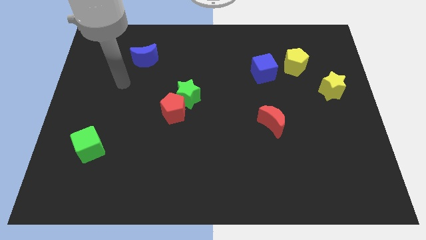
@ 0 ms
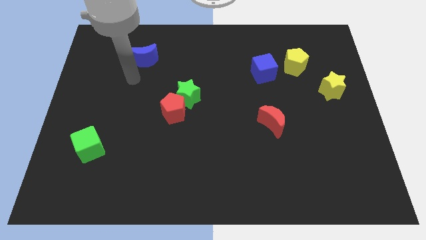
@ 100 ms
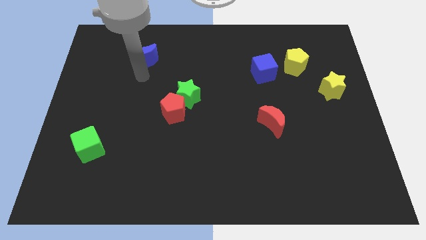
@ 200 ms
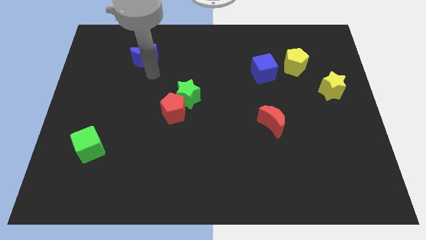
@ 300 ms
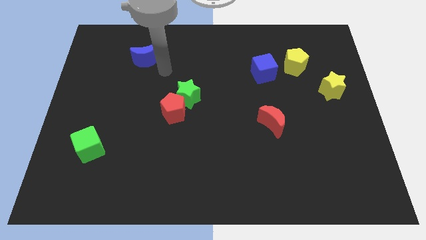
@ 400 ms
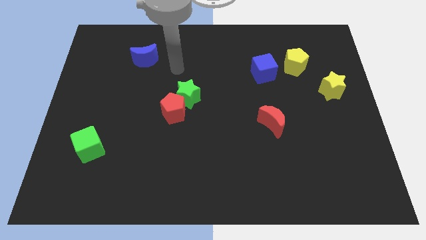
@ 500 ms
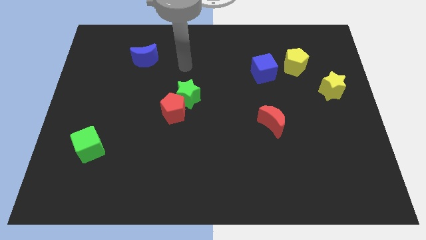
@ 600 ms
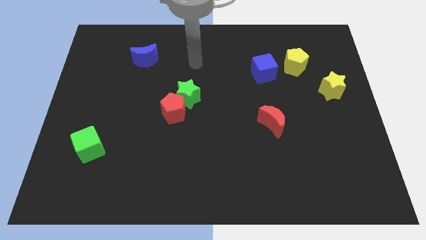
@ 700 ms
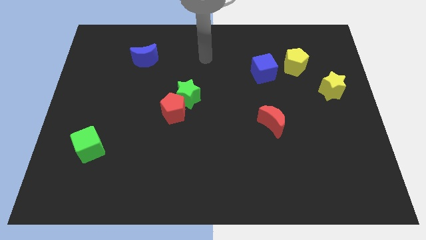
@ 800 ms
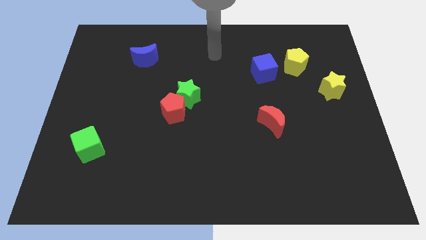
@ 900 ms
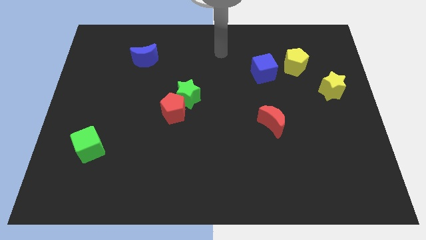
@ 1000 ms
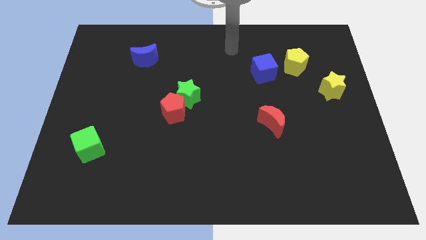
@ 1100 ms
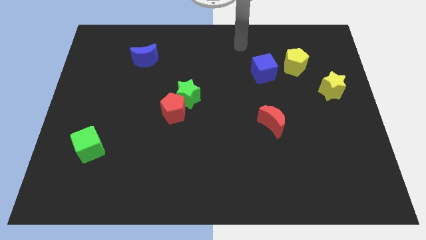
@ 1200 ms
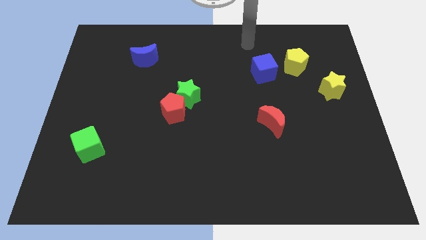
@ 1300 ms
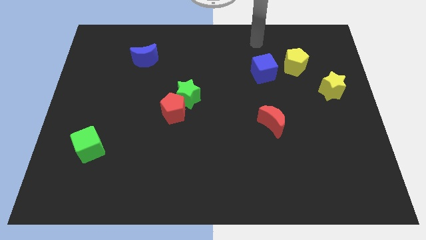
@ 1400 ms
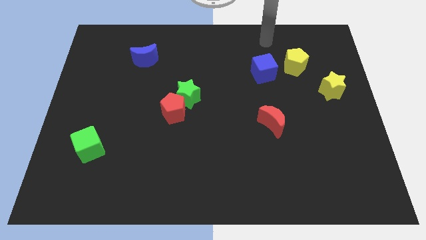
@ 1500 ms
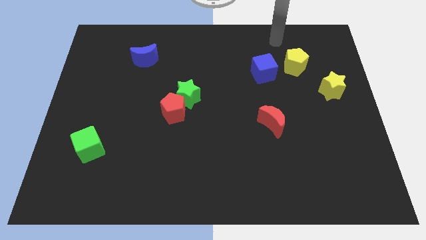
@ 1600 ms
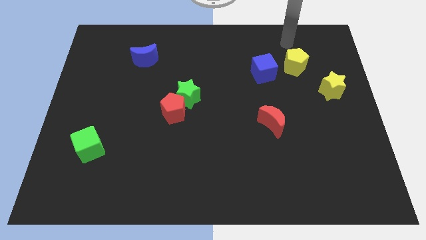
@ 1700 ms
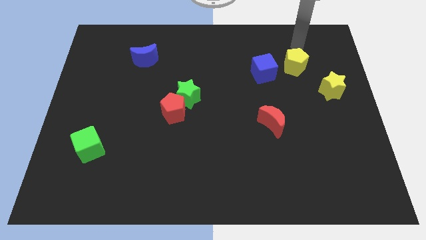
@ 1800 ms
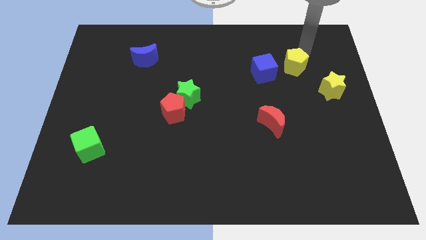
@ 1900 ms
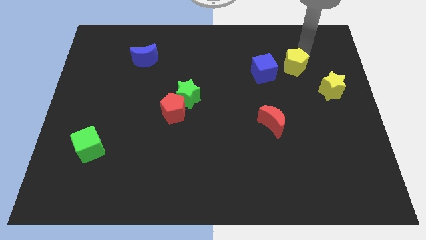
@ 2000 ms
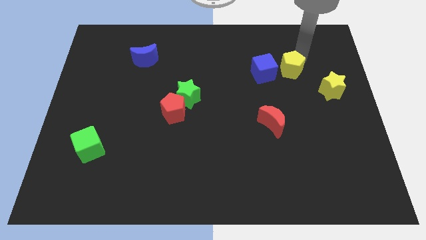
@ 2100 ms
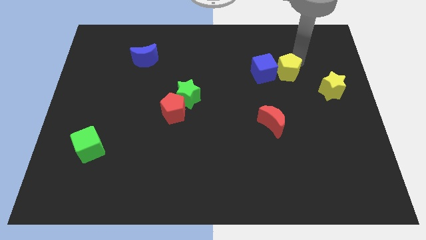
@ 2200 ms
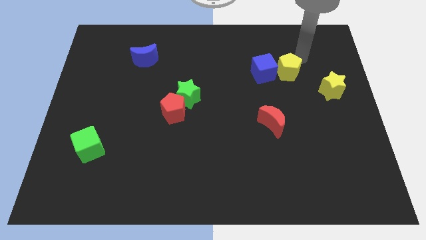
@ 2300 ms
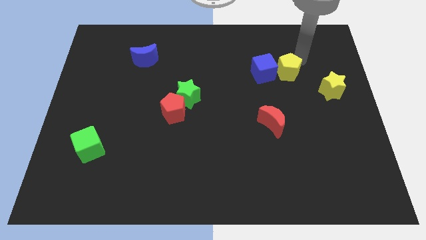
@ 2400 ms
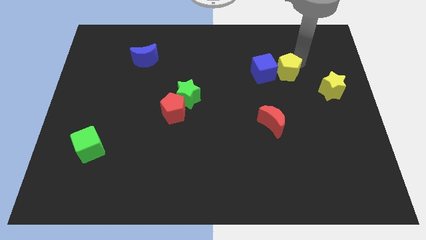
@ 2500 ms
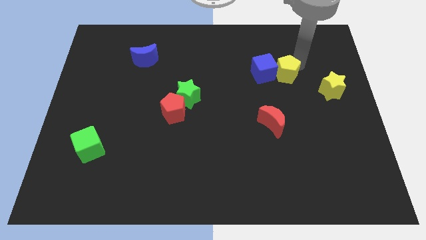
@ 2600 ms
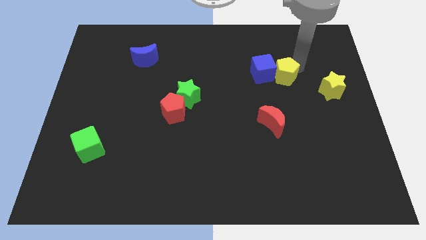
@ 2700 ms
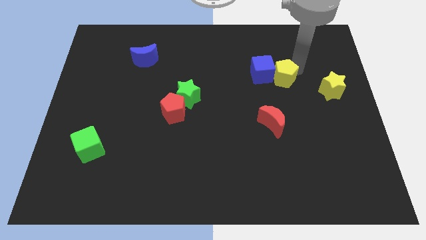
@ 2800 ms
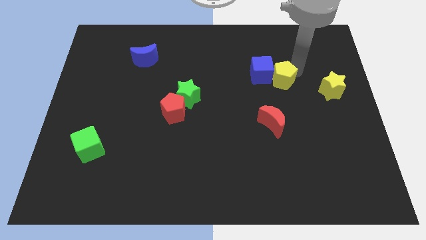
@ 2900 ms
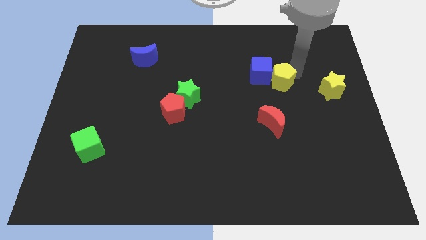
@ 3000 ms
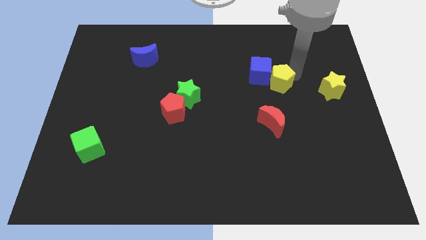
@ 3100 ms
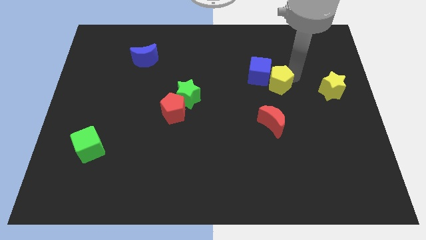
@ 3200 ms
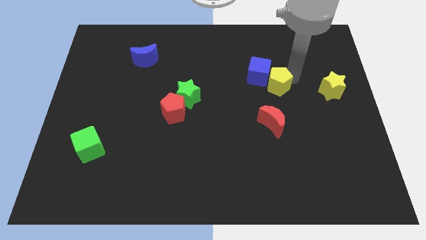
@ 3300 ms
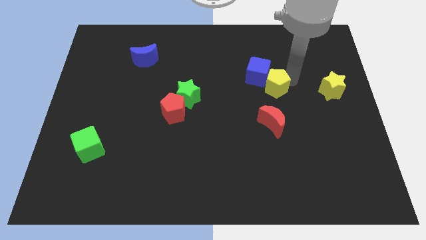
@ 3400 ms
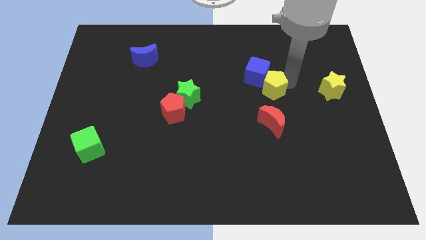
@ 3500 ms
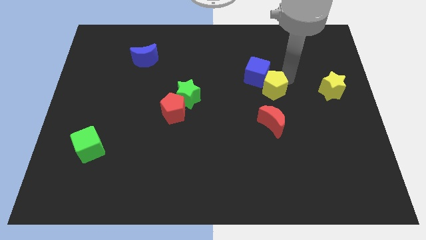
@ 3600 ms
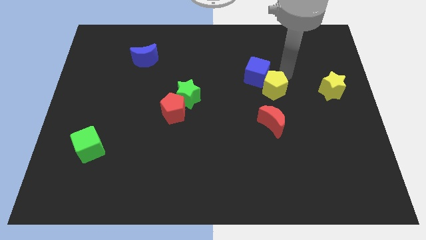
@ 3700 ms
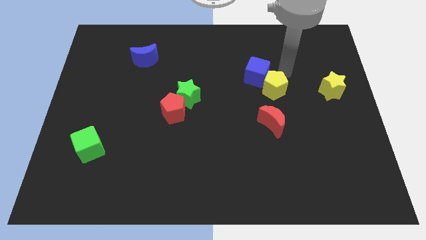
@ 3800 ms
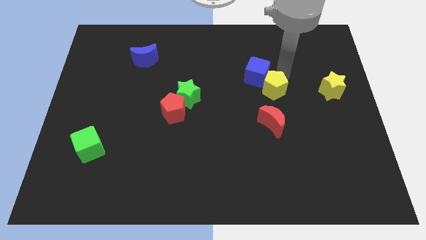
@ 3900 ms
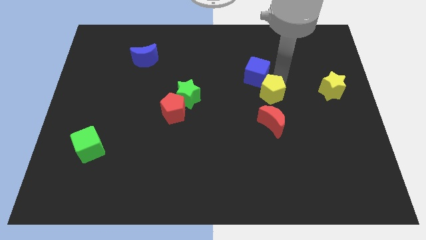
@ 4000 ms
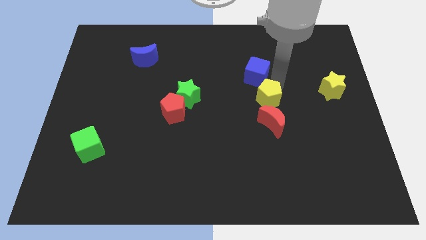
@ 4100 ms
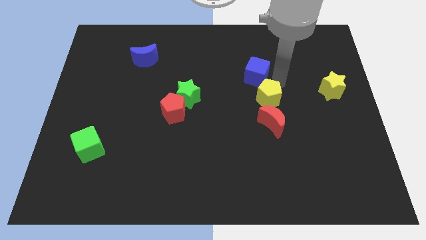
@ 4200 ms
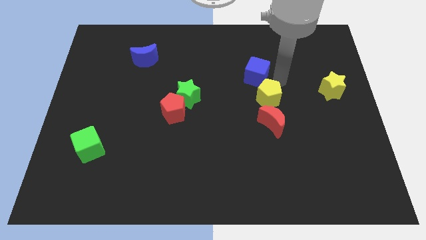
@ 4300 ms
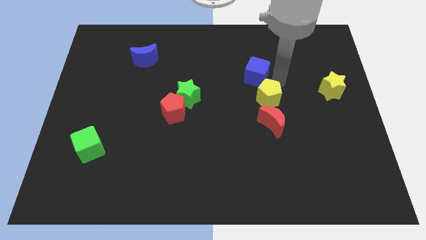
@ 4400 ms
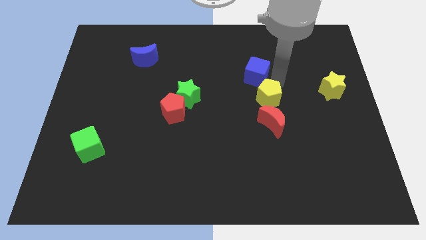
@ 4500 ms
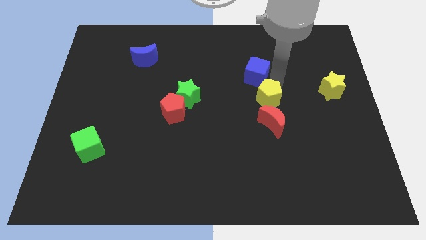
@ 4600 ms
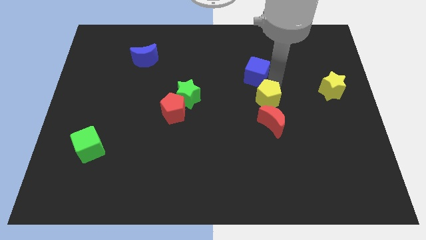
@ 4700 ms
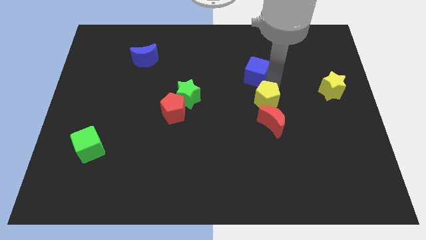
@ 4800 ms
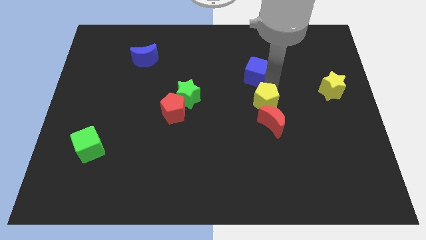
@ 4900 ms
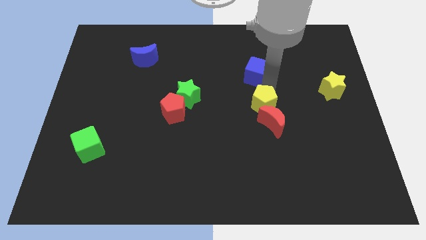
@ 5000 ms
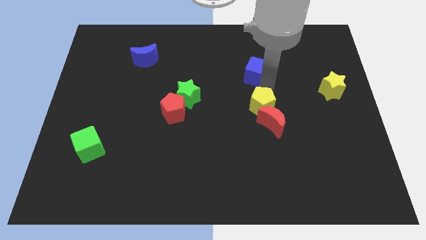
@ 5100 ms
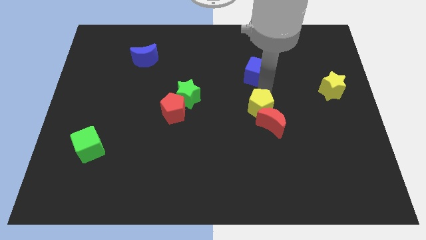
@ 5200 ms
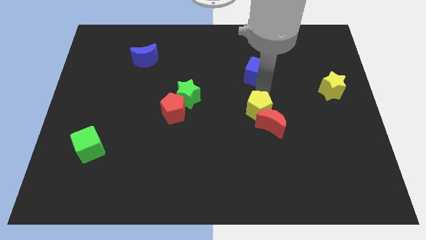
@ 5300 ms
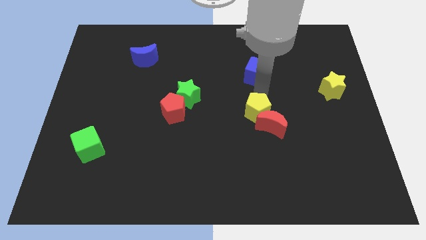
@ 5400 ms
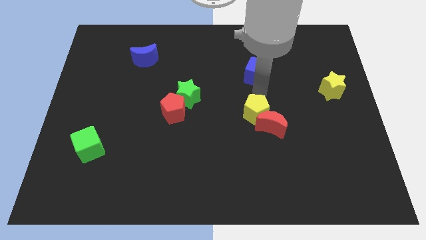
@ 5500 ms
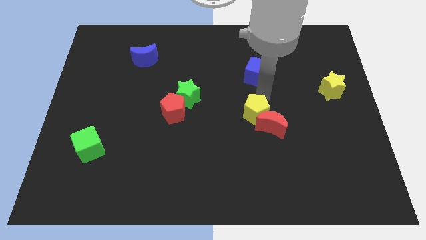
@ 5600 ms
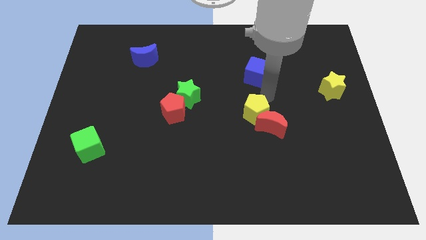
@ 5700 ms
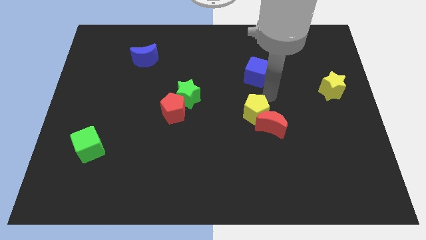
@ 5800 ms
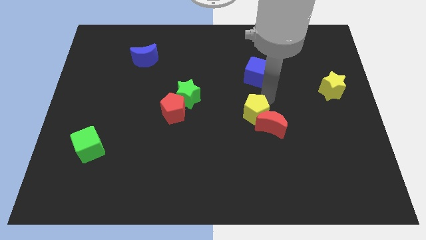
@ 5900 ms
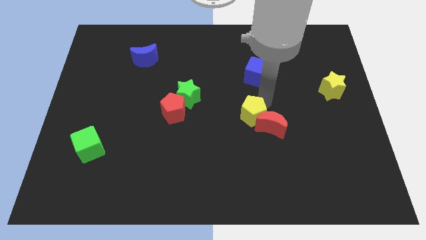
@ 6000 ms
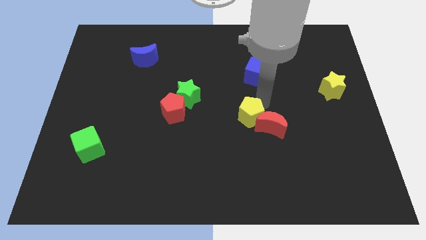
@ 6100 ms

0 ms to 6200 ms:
slide the yellow pentagon diagonally down and left

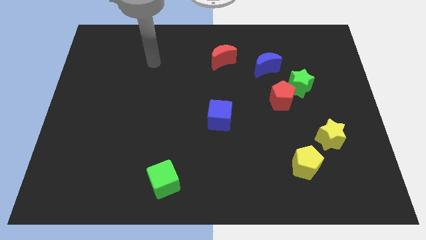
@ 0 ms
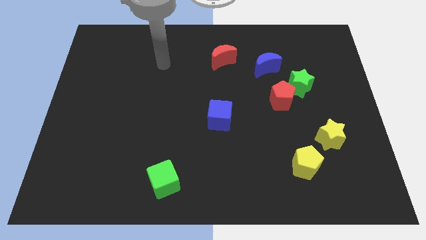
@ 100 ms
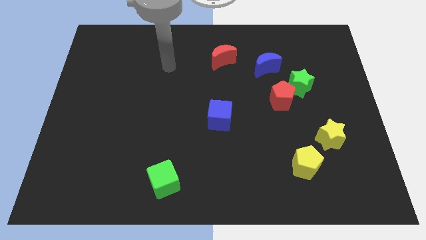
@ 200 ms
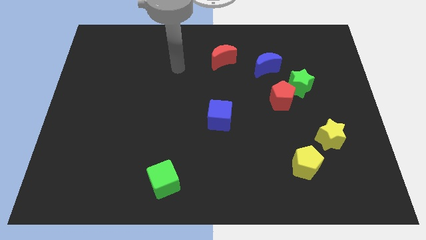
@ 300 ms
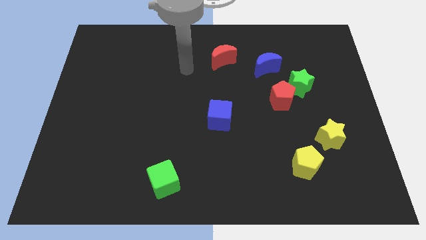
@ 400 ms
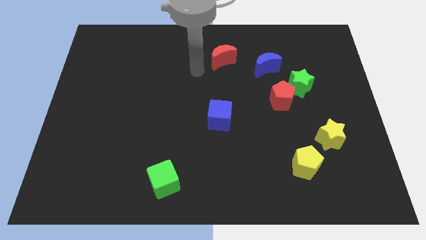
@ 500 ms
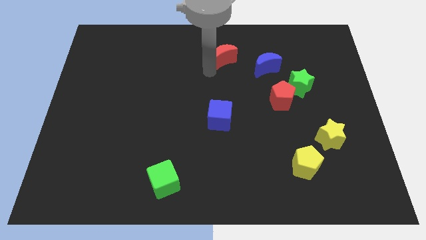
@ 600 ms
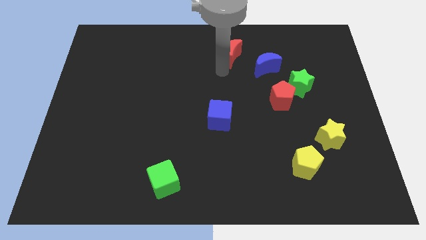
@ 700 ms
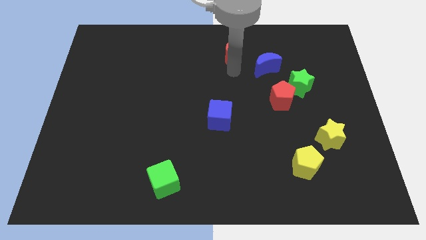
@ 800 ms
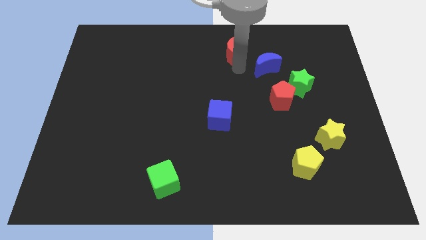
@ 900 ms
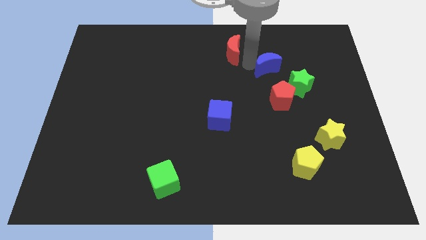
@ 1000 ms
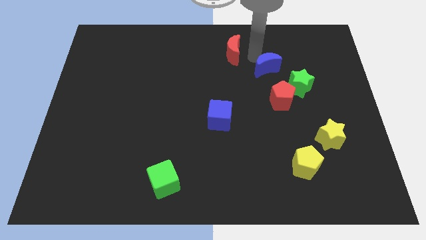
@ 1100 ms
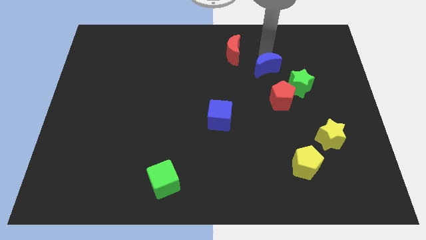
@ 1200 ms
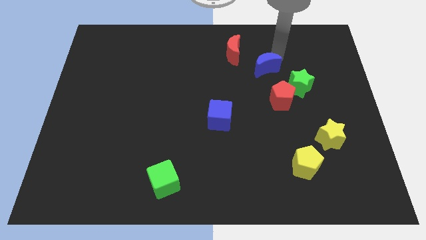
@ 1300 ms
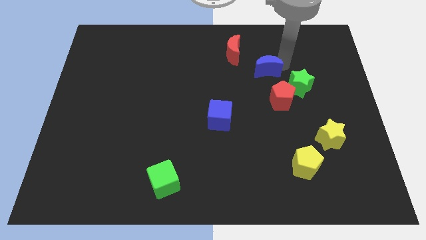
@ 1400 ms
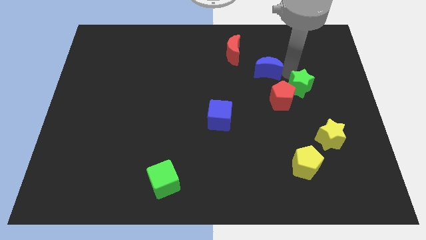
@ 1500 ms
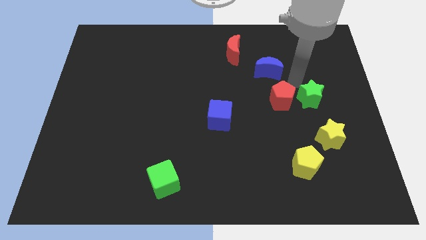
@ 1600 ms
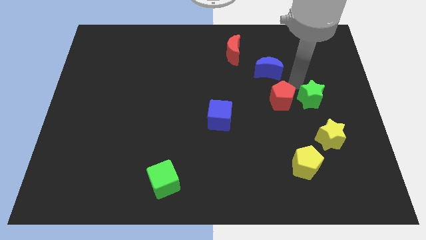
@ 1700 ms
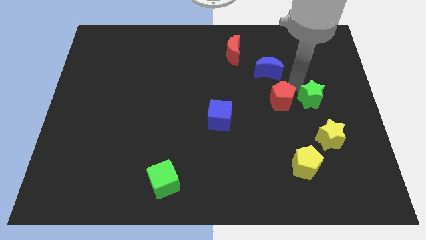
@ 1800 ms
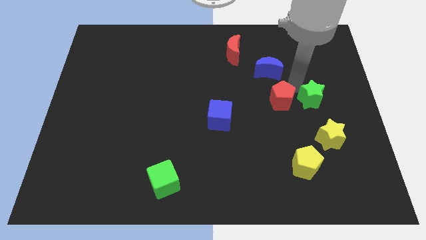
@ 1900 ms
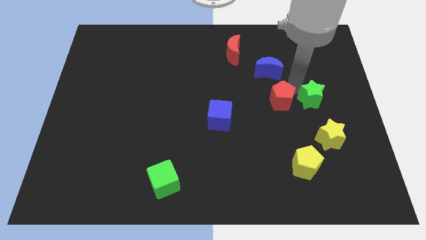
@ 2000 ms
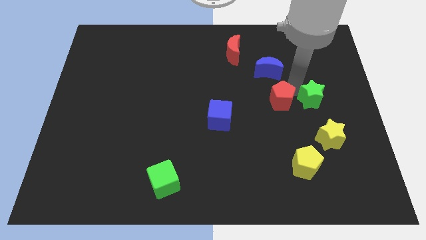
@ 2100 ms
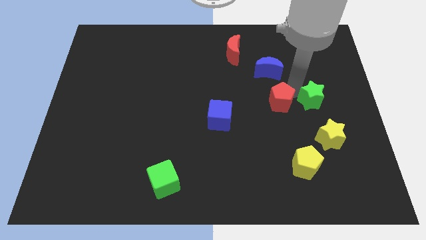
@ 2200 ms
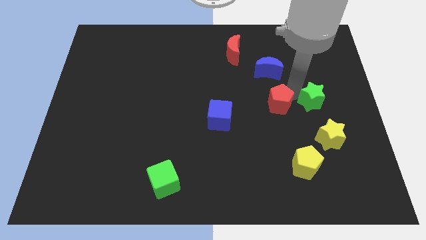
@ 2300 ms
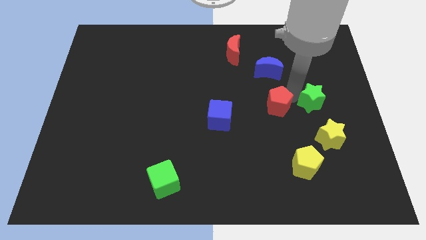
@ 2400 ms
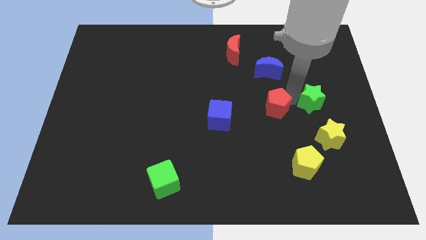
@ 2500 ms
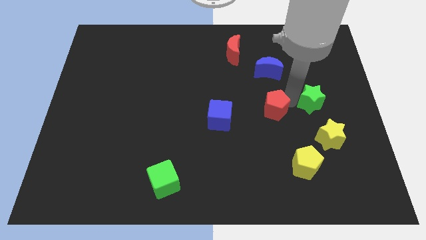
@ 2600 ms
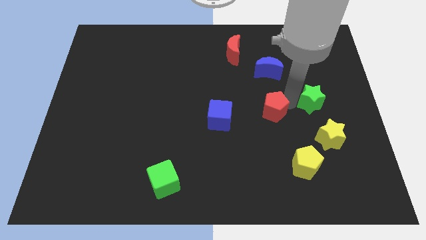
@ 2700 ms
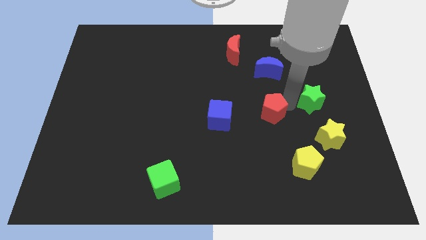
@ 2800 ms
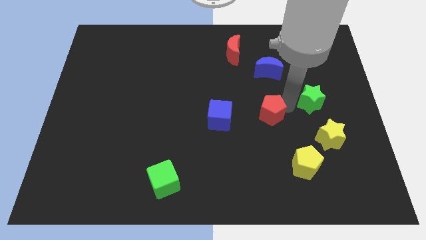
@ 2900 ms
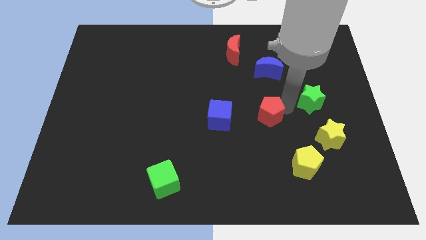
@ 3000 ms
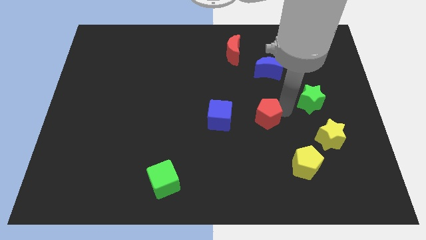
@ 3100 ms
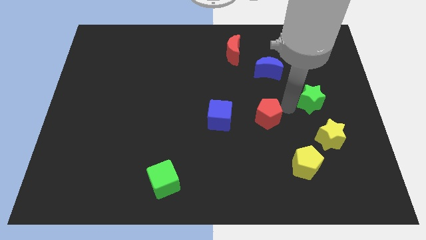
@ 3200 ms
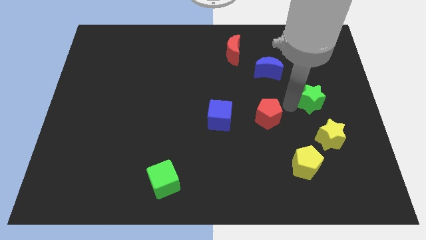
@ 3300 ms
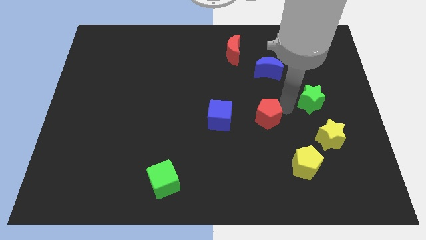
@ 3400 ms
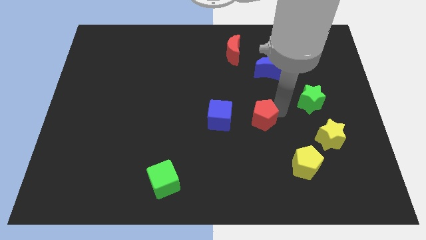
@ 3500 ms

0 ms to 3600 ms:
move the red pentagon slightly down and left
